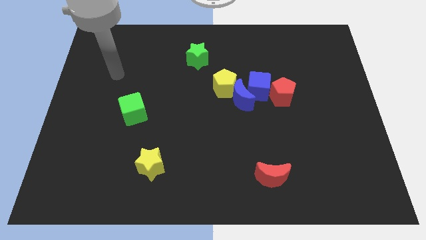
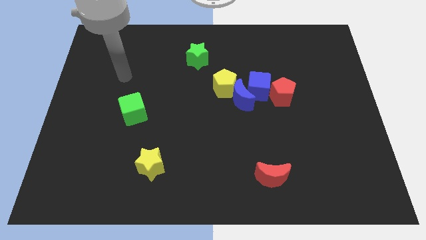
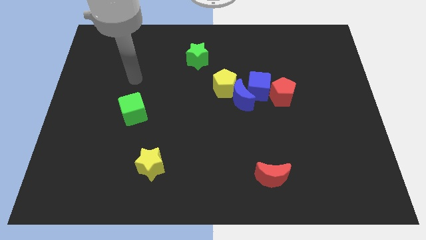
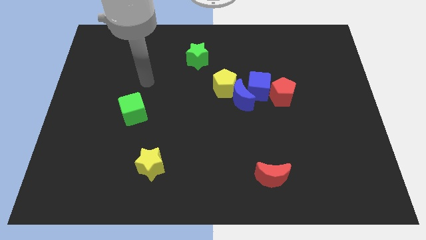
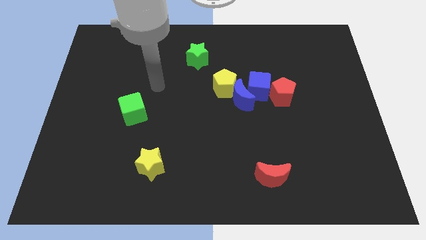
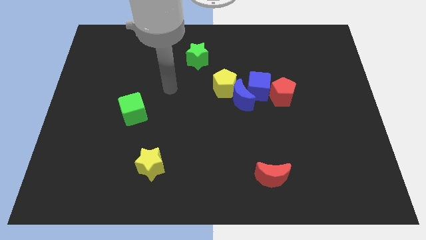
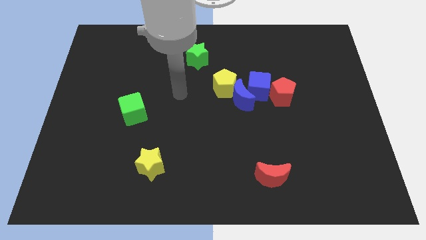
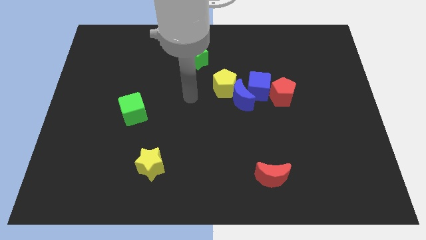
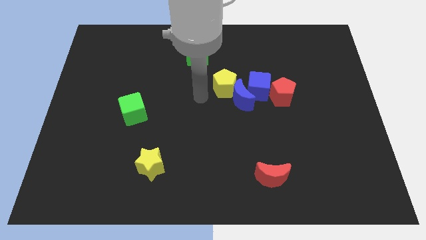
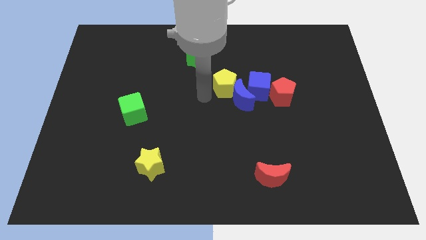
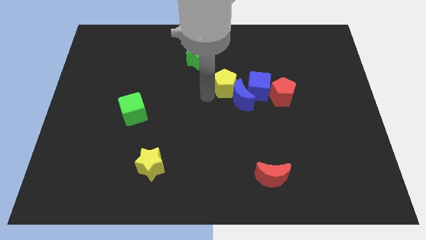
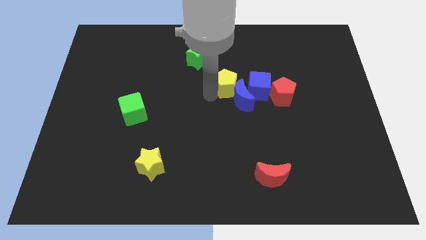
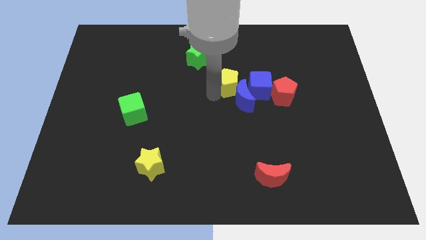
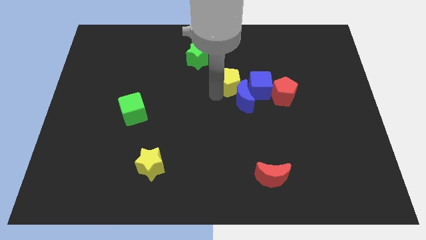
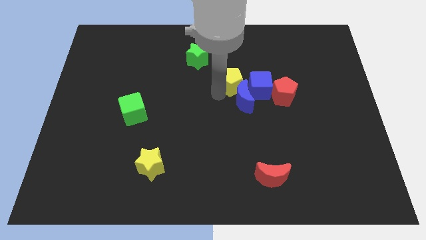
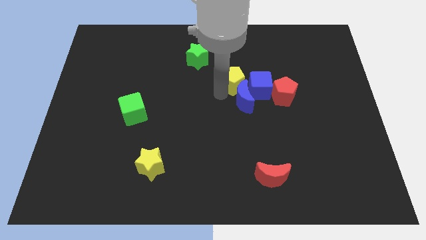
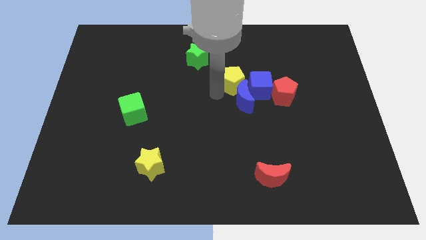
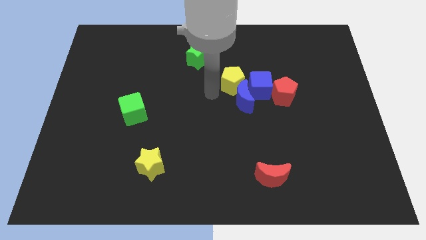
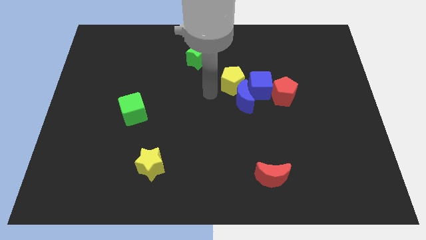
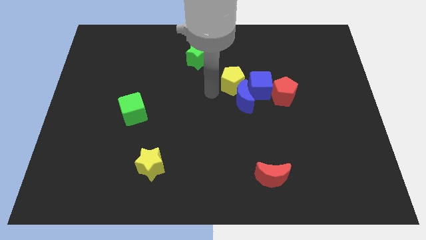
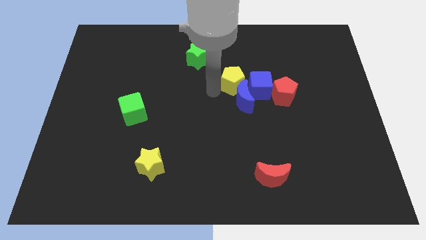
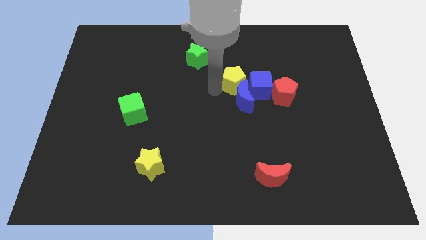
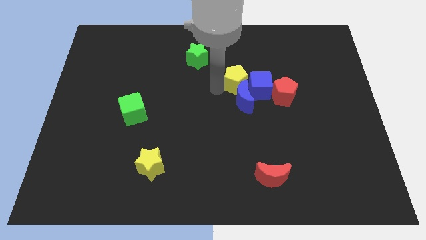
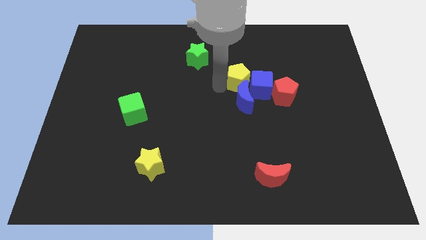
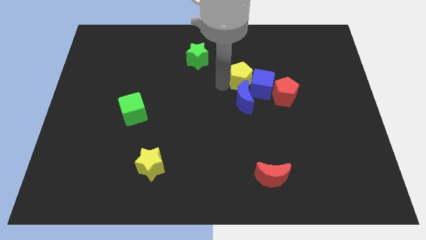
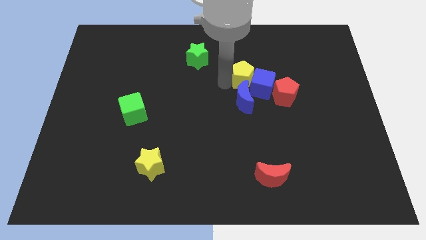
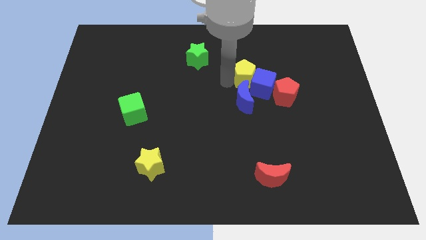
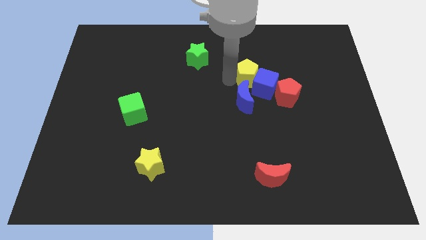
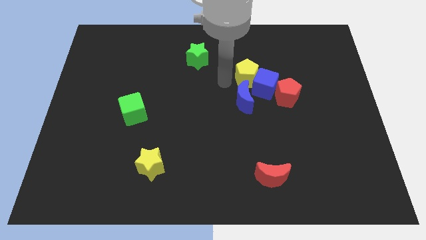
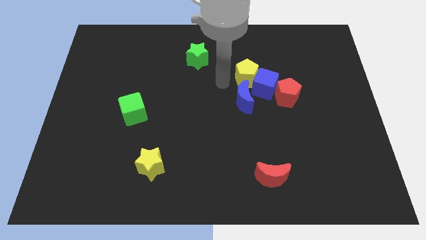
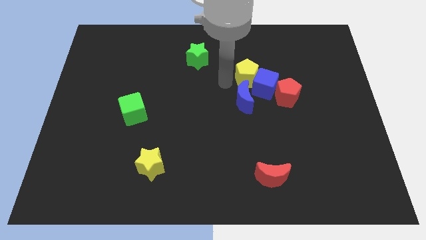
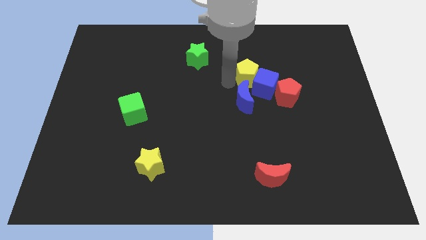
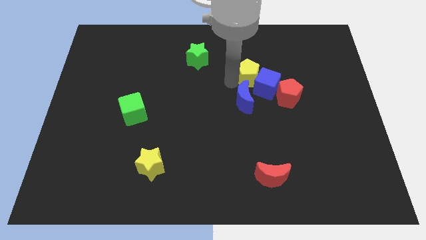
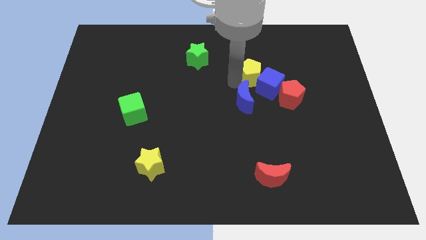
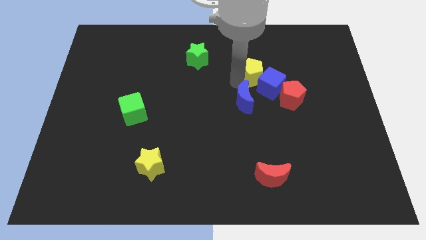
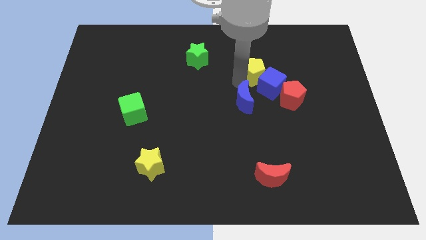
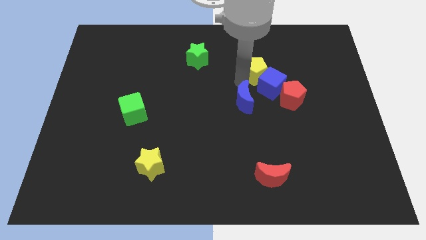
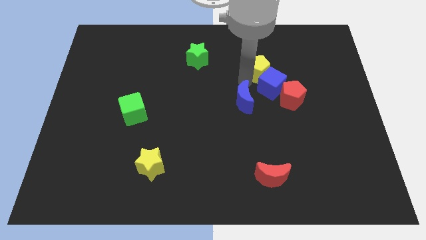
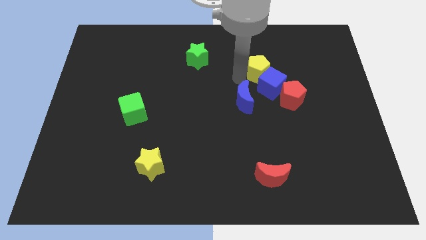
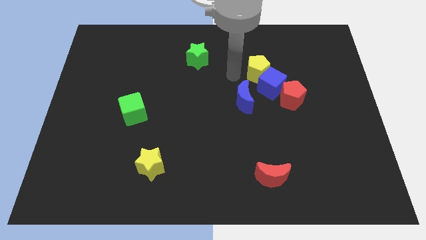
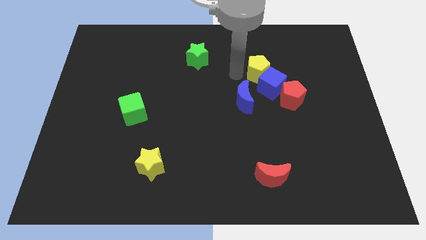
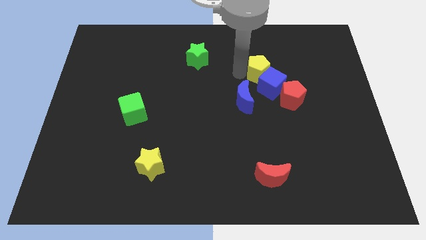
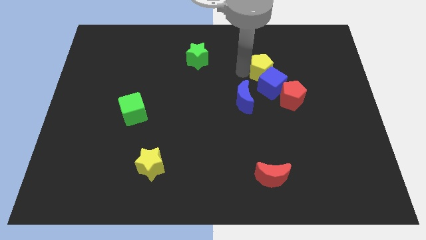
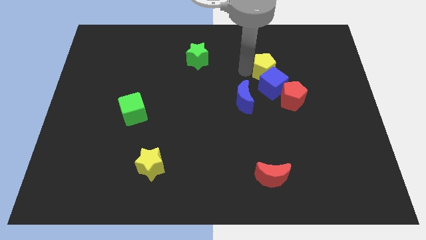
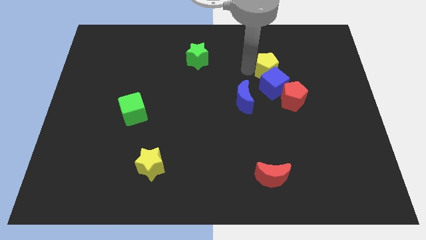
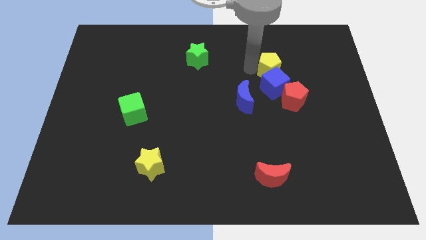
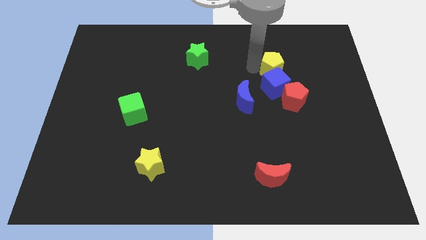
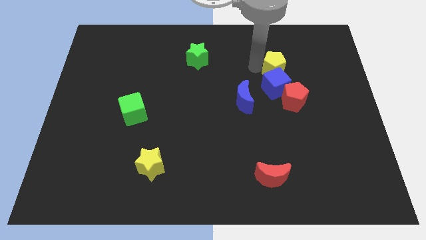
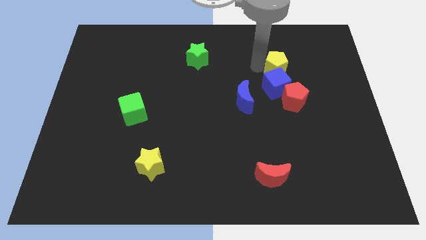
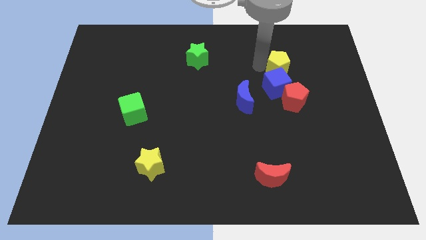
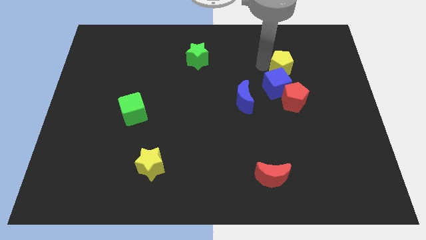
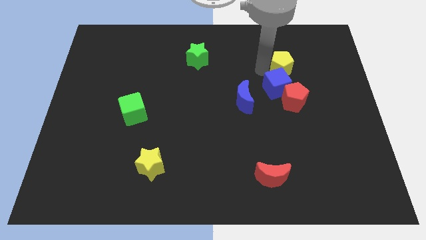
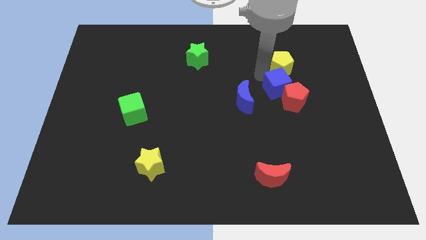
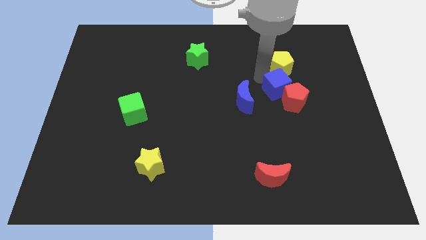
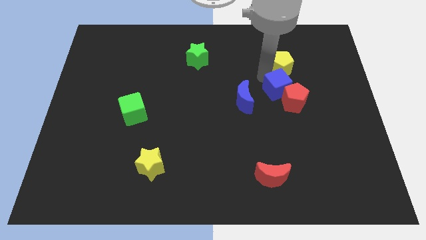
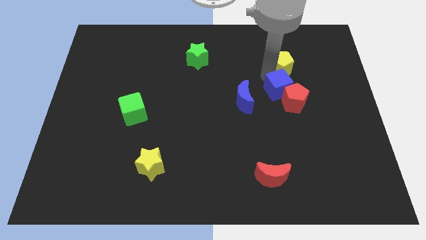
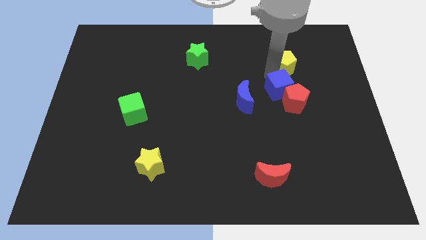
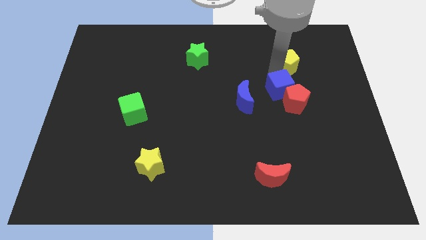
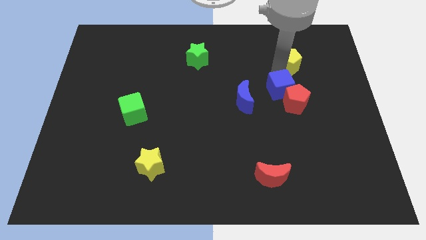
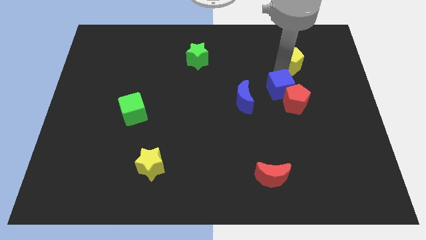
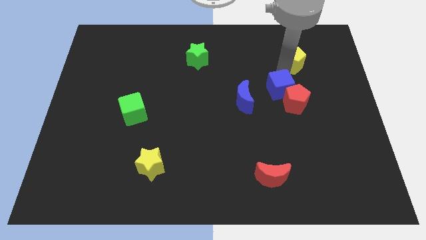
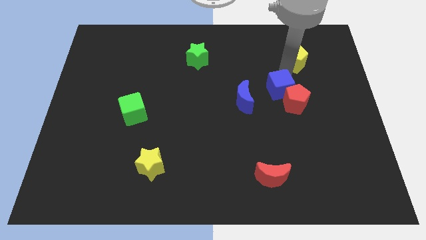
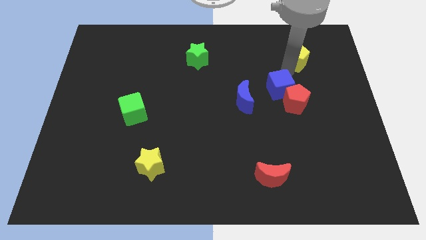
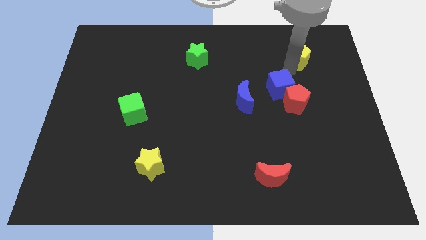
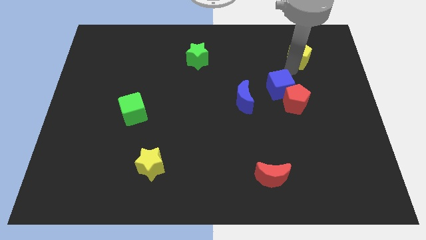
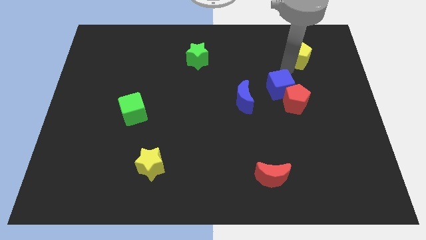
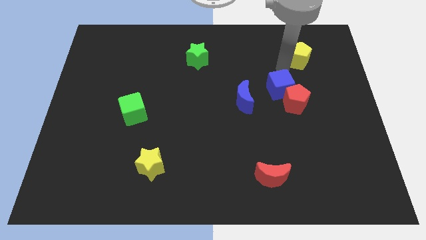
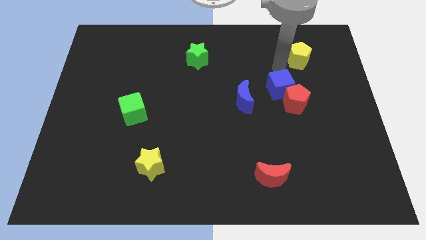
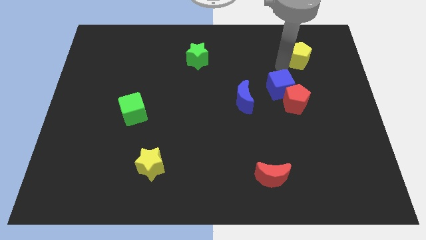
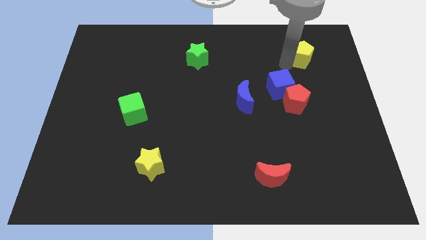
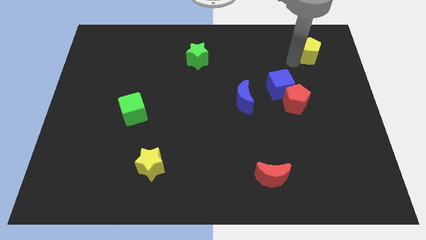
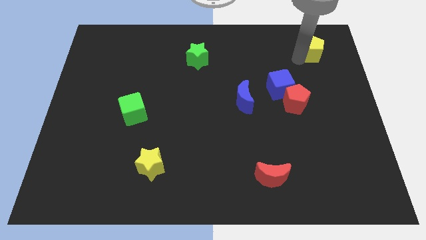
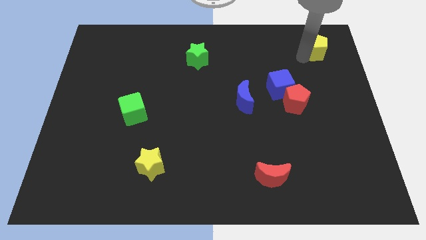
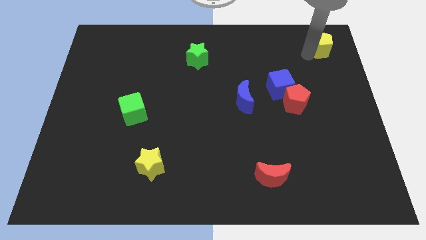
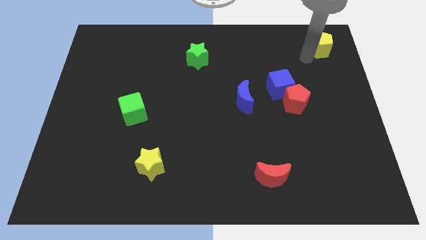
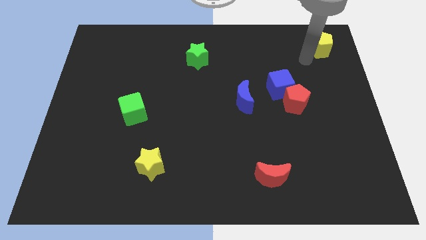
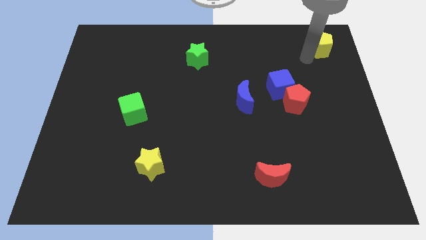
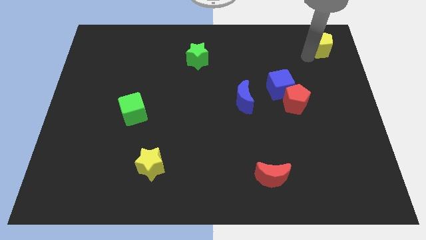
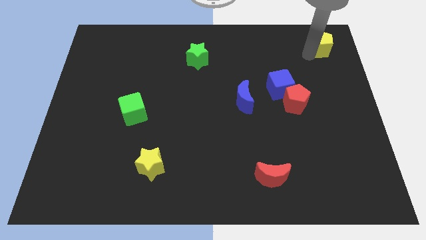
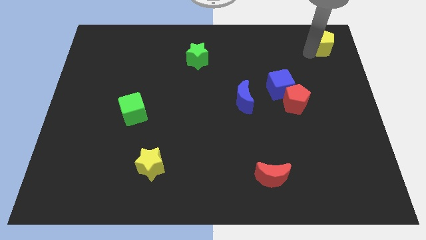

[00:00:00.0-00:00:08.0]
slide the yellow pentagon to the upper right corner
